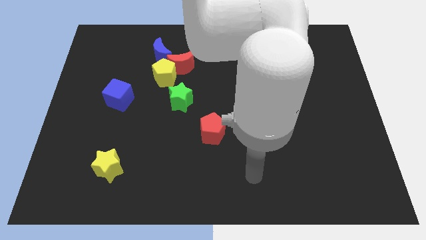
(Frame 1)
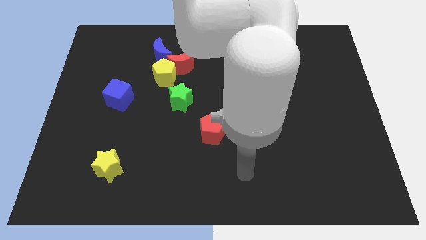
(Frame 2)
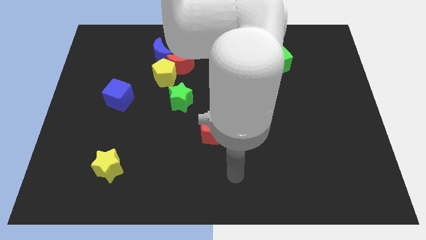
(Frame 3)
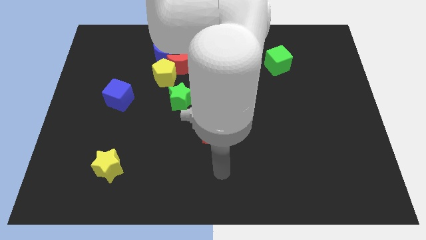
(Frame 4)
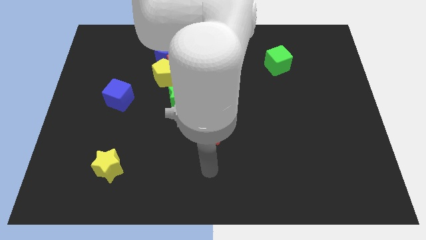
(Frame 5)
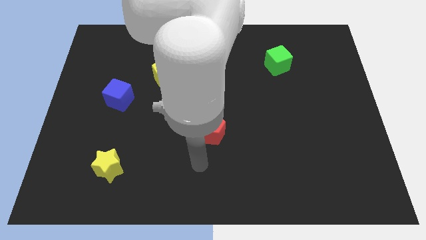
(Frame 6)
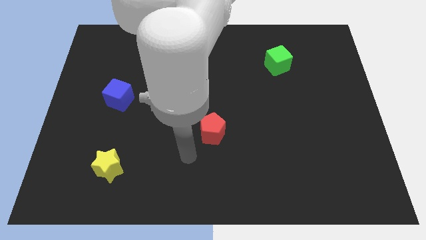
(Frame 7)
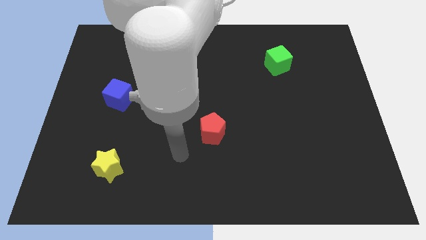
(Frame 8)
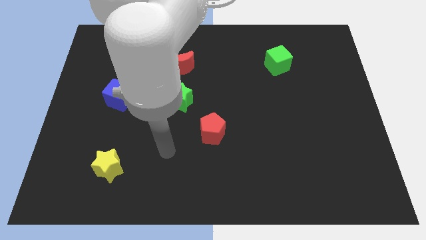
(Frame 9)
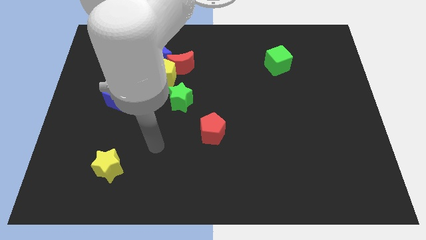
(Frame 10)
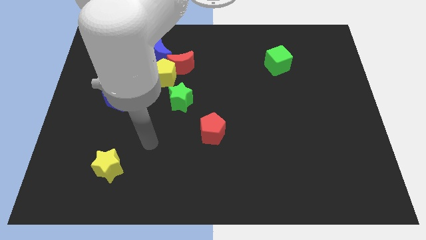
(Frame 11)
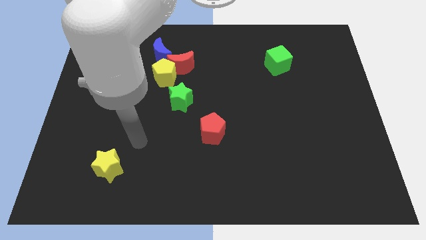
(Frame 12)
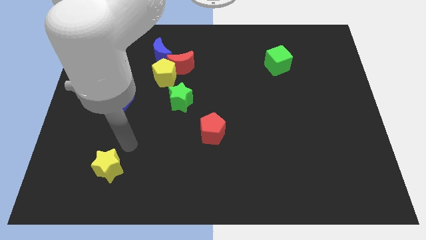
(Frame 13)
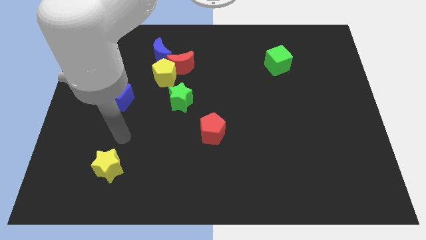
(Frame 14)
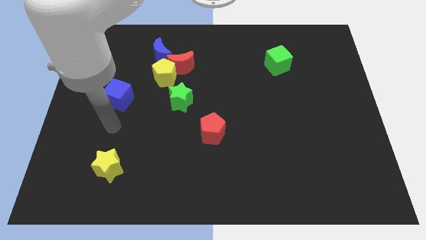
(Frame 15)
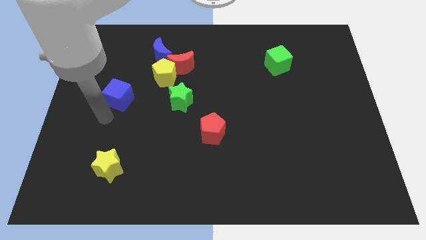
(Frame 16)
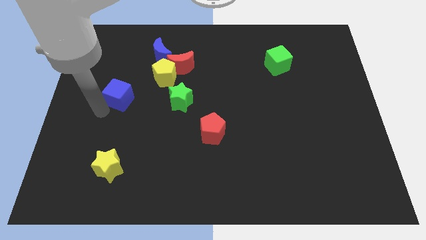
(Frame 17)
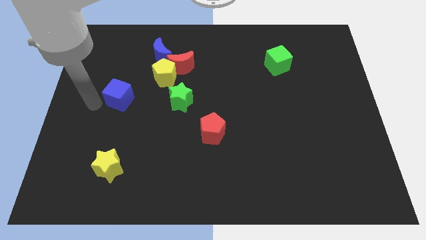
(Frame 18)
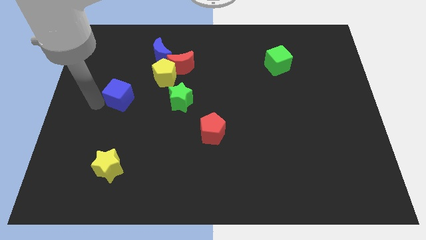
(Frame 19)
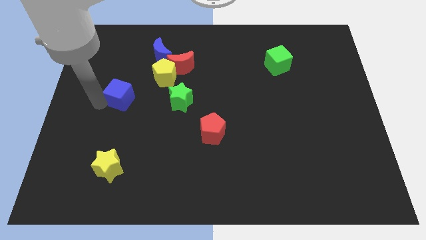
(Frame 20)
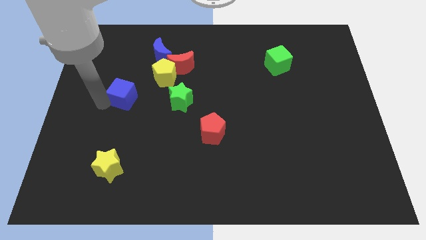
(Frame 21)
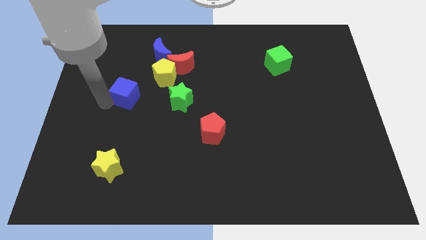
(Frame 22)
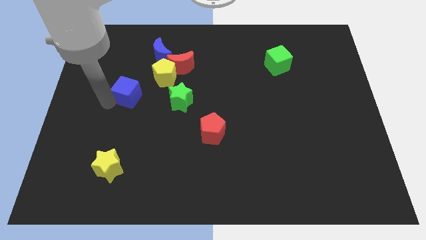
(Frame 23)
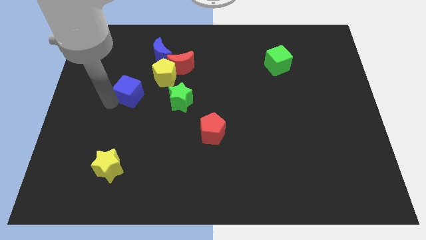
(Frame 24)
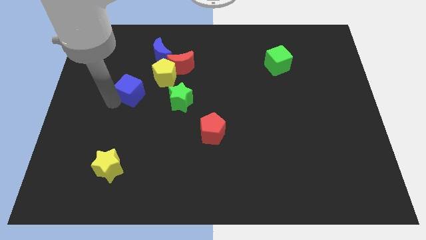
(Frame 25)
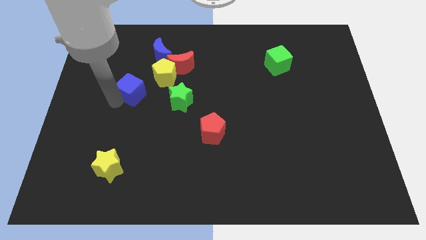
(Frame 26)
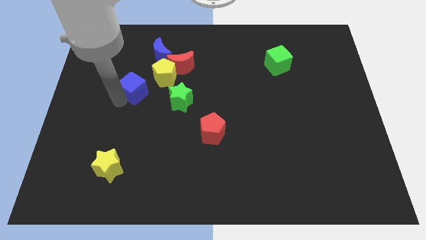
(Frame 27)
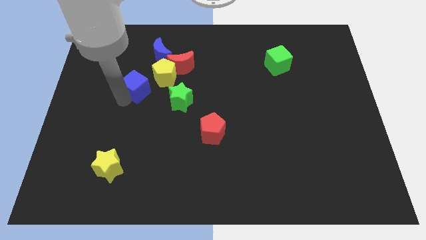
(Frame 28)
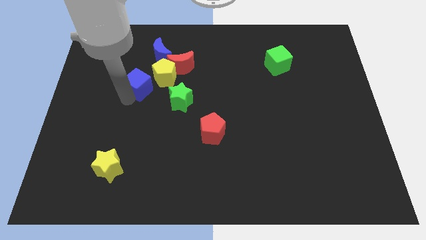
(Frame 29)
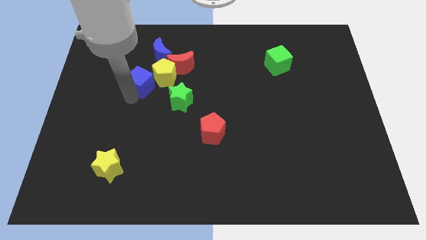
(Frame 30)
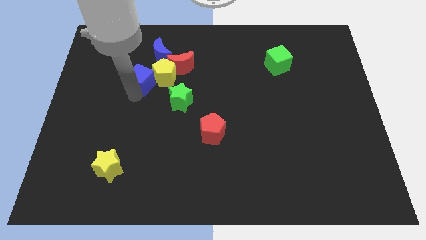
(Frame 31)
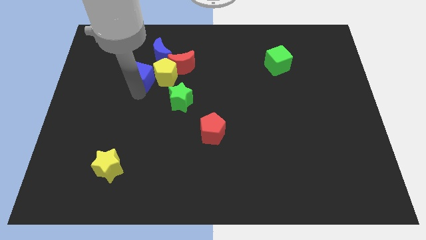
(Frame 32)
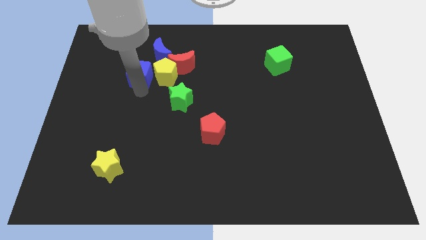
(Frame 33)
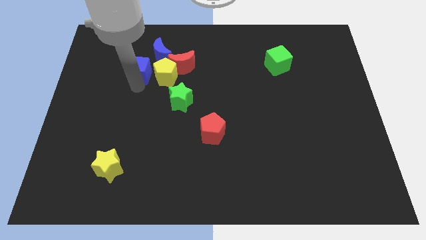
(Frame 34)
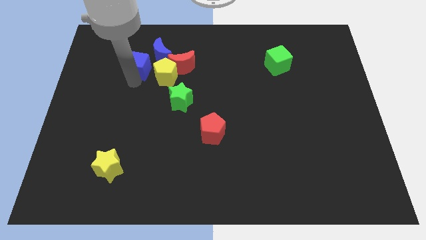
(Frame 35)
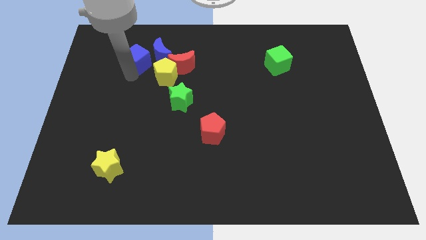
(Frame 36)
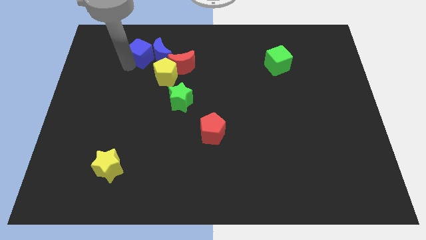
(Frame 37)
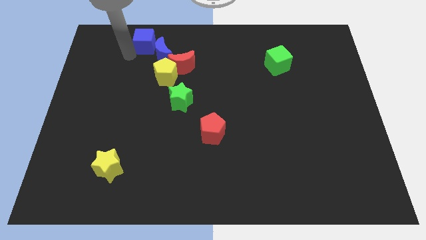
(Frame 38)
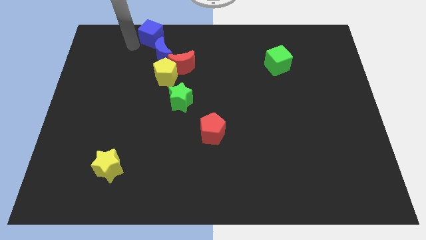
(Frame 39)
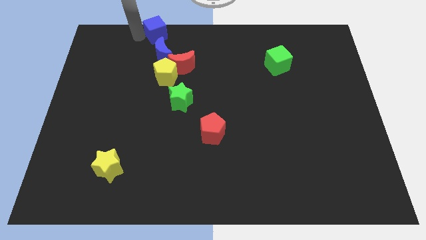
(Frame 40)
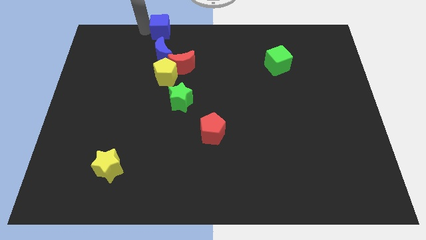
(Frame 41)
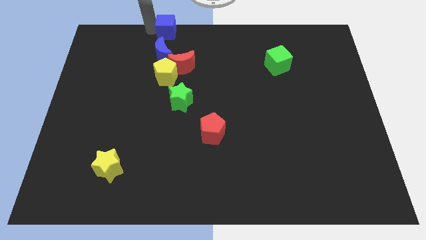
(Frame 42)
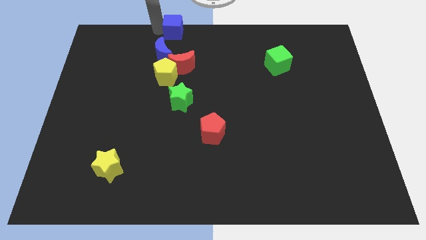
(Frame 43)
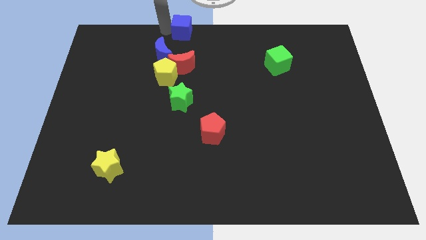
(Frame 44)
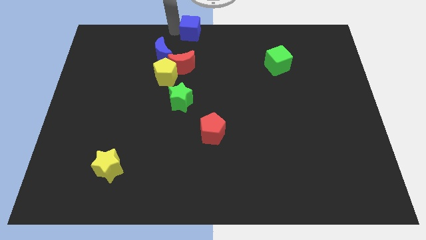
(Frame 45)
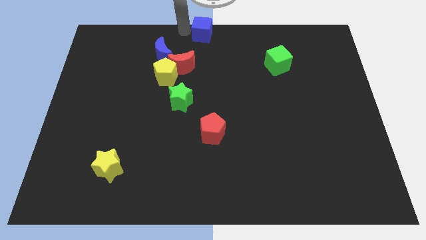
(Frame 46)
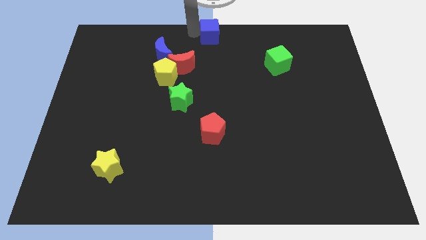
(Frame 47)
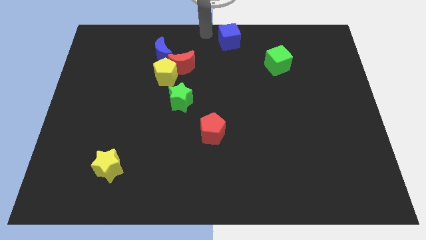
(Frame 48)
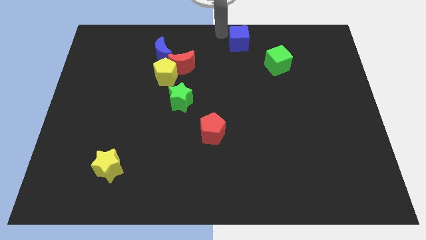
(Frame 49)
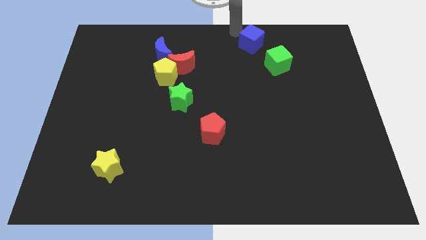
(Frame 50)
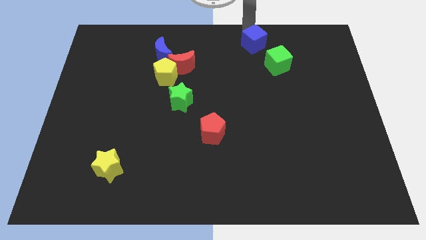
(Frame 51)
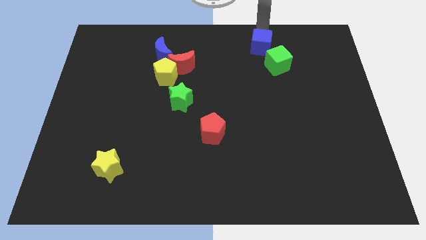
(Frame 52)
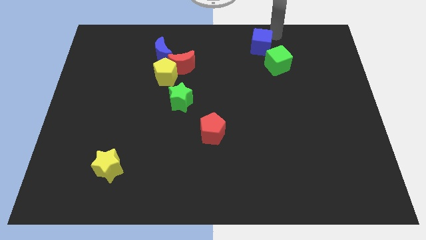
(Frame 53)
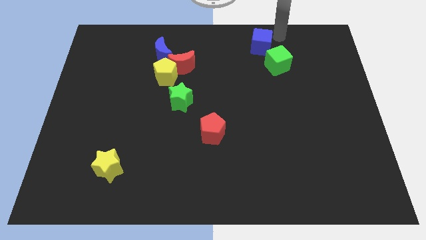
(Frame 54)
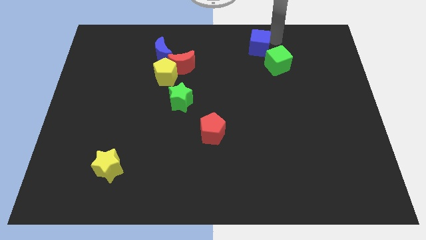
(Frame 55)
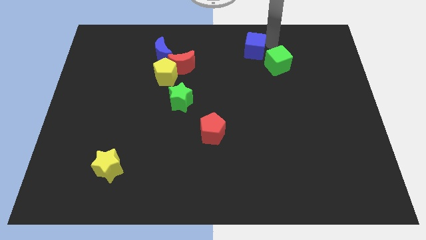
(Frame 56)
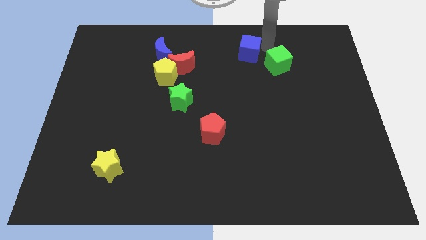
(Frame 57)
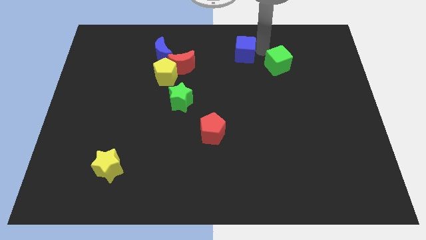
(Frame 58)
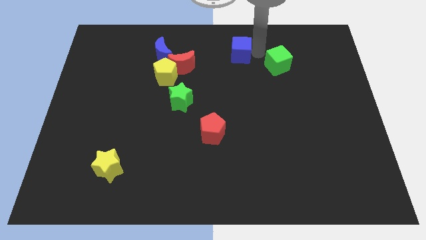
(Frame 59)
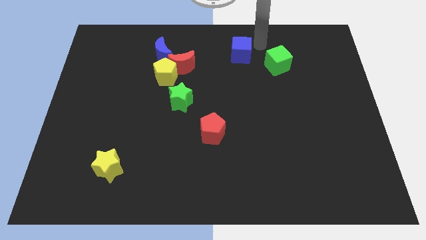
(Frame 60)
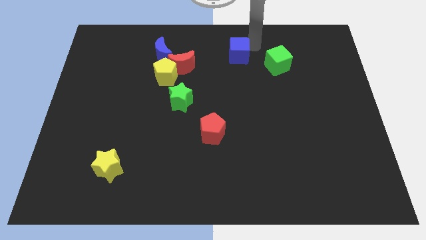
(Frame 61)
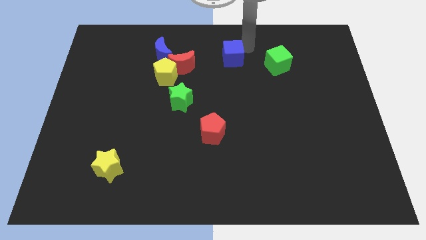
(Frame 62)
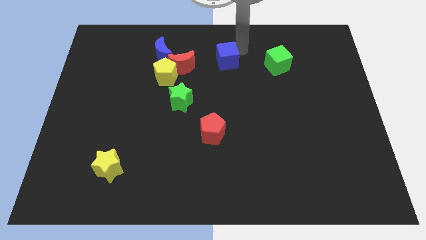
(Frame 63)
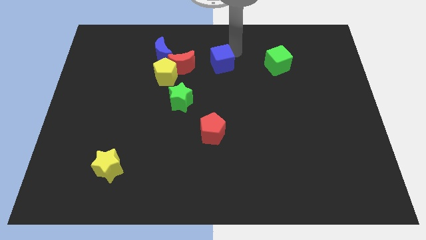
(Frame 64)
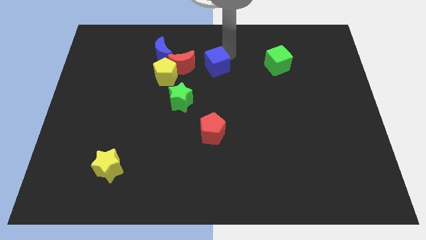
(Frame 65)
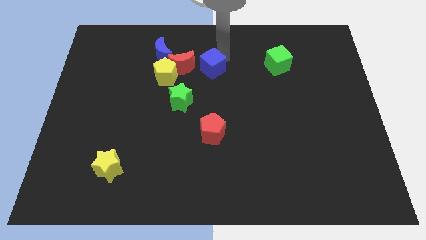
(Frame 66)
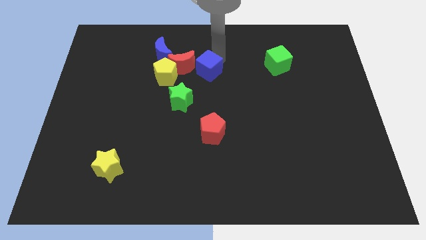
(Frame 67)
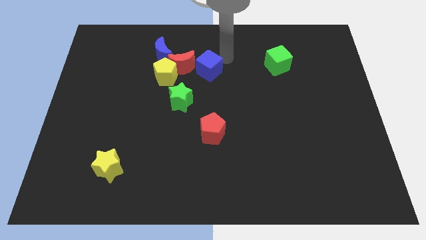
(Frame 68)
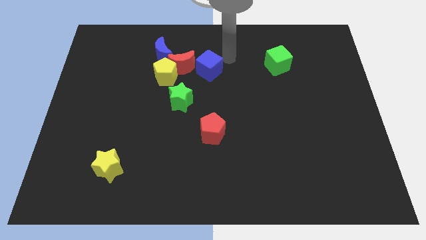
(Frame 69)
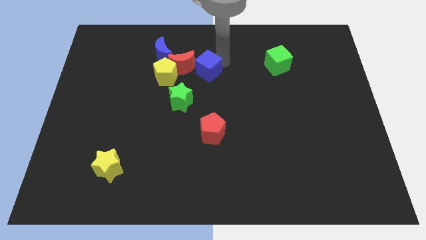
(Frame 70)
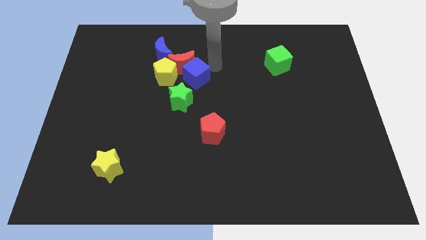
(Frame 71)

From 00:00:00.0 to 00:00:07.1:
slide the blue cube to the red moon
